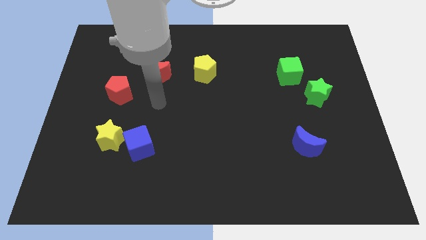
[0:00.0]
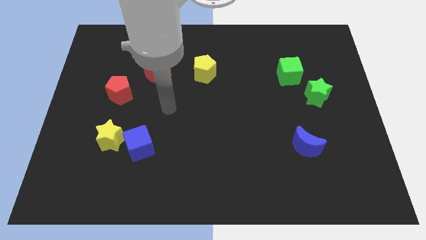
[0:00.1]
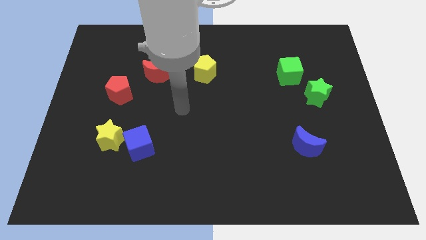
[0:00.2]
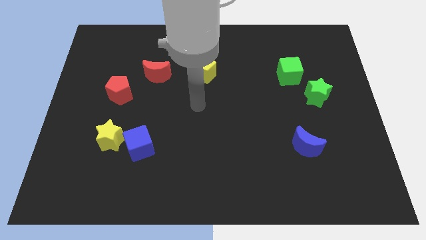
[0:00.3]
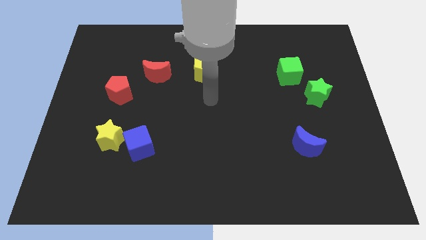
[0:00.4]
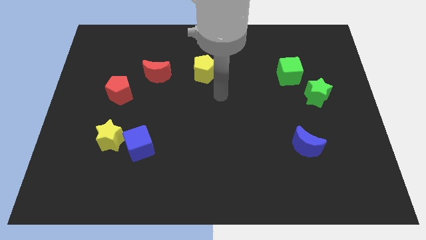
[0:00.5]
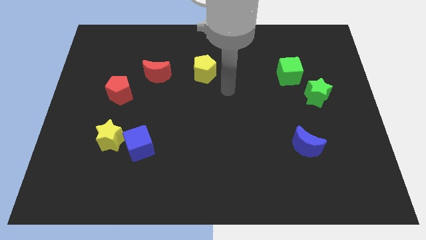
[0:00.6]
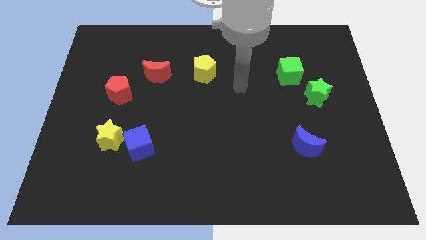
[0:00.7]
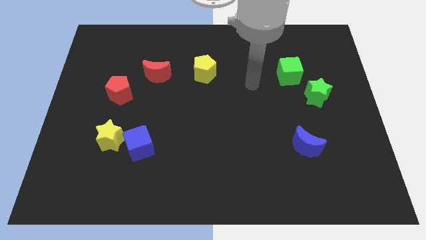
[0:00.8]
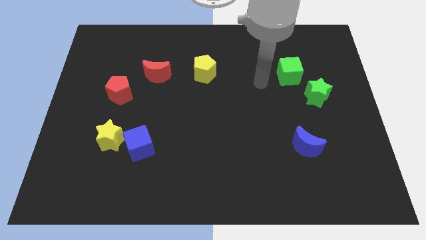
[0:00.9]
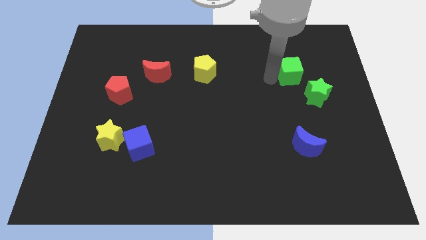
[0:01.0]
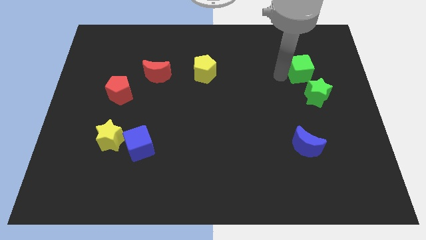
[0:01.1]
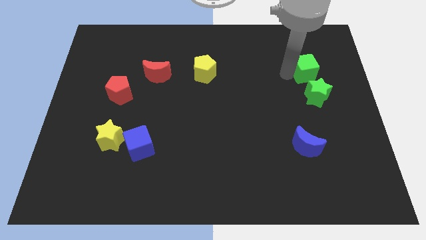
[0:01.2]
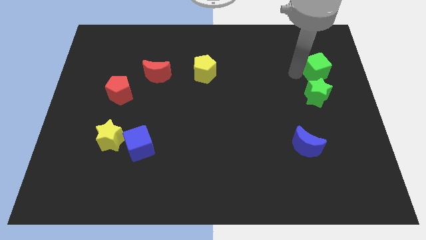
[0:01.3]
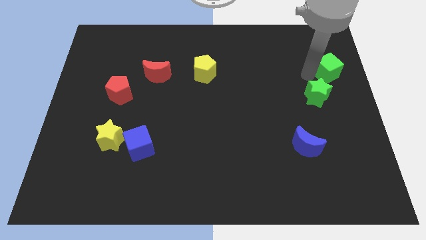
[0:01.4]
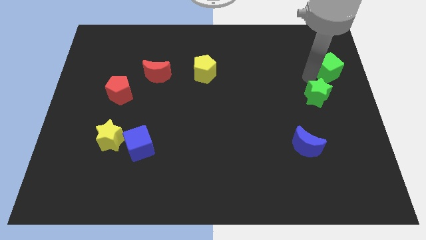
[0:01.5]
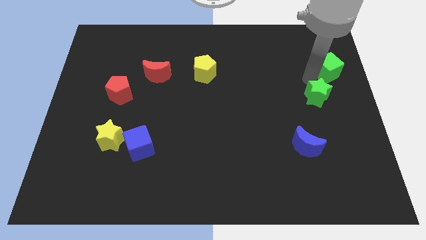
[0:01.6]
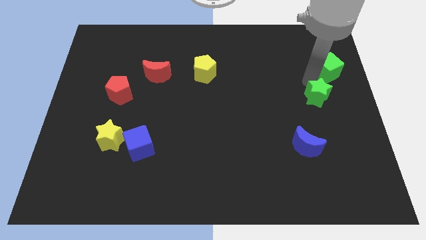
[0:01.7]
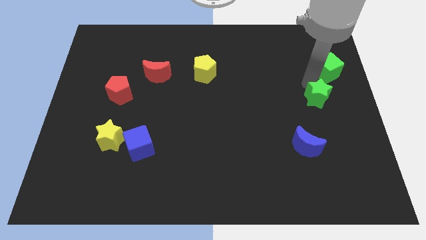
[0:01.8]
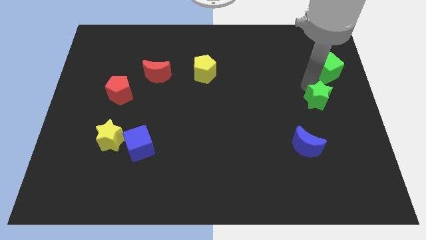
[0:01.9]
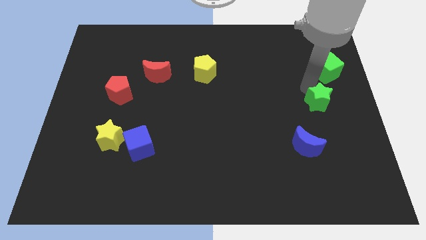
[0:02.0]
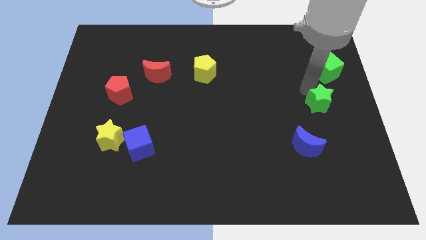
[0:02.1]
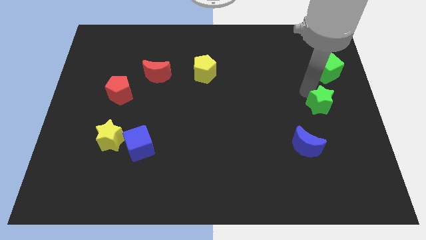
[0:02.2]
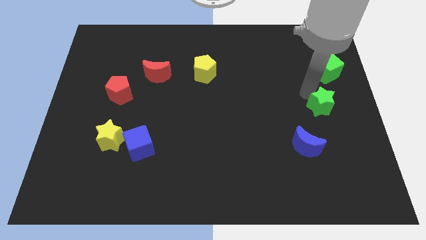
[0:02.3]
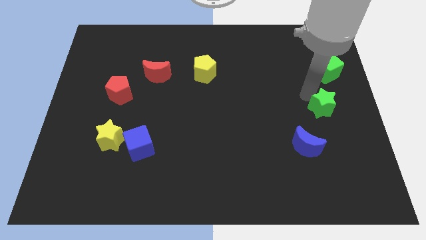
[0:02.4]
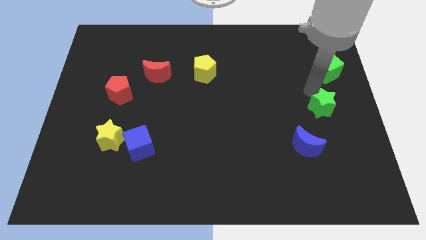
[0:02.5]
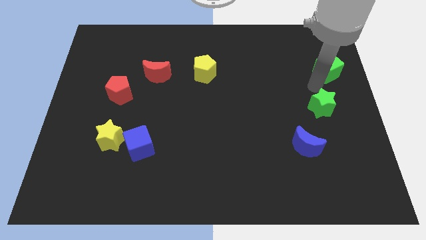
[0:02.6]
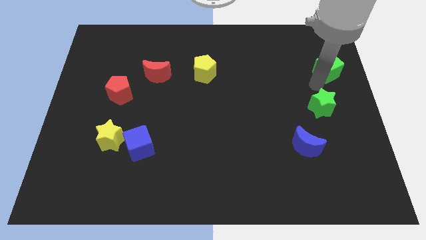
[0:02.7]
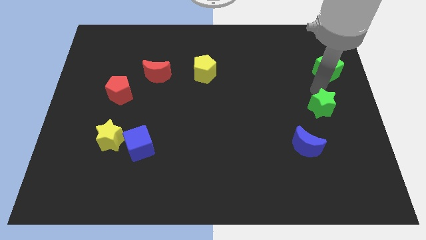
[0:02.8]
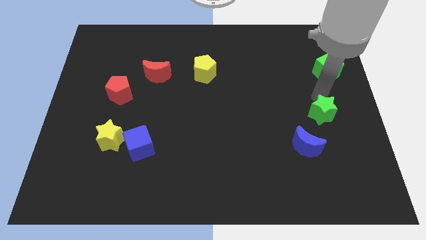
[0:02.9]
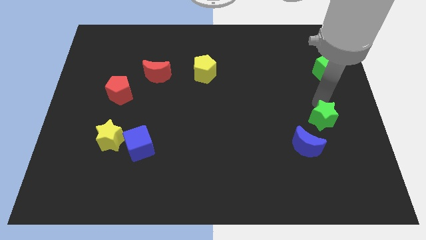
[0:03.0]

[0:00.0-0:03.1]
move the green star downwards somewhat

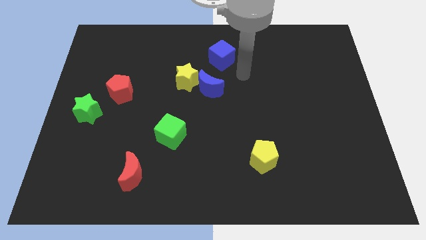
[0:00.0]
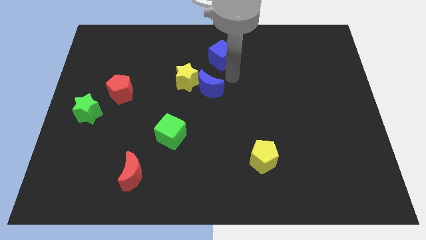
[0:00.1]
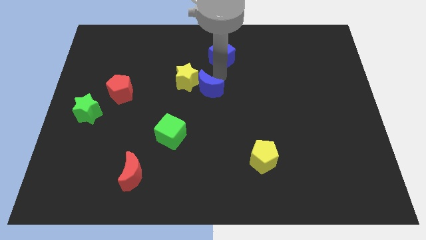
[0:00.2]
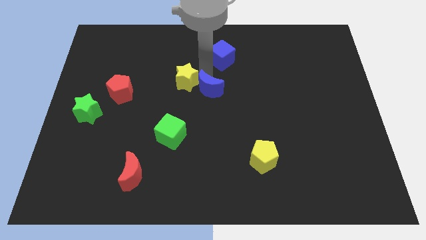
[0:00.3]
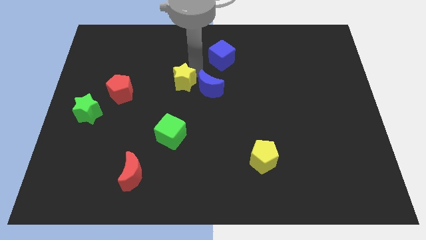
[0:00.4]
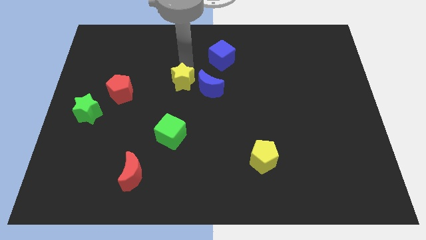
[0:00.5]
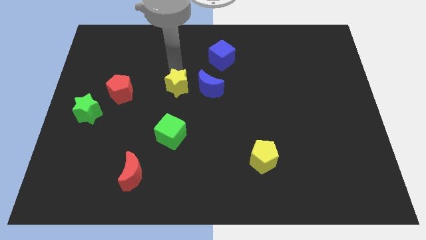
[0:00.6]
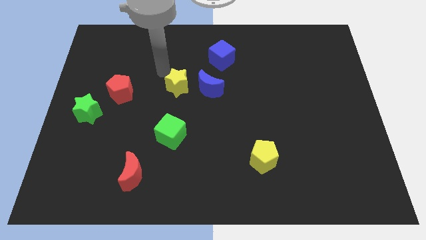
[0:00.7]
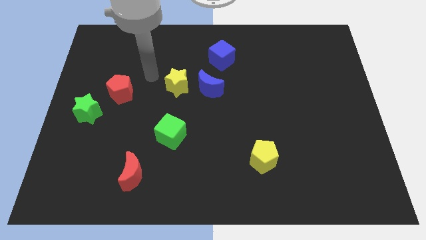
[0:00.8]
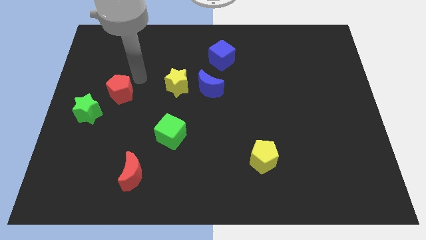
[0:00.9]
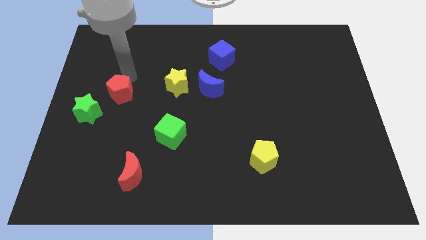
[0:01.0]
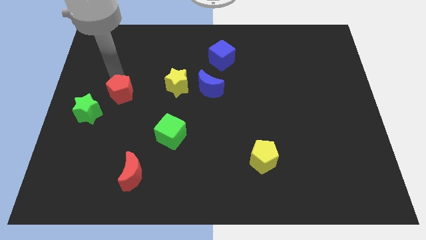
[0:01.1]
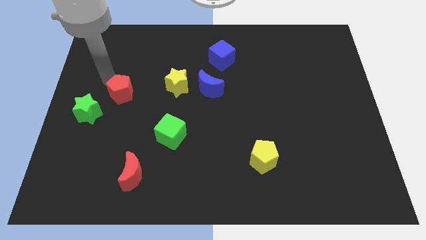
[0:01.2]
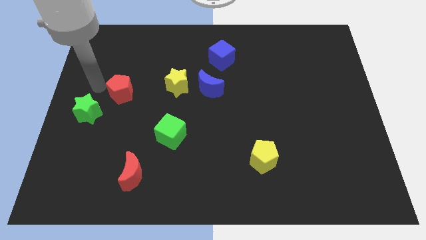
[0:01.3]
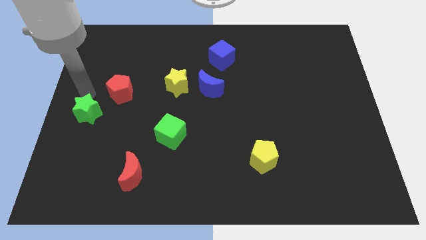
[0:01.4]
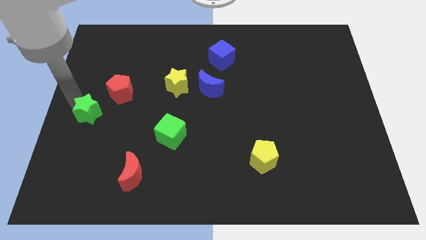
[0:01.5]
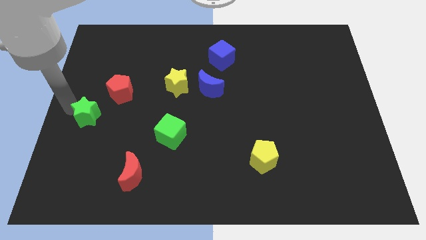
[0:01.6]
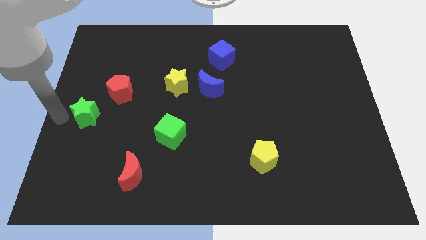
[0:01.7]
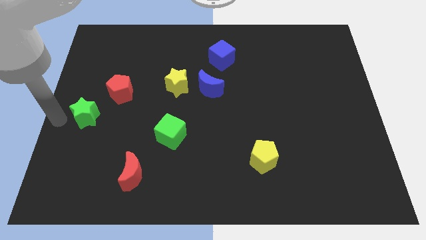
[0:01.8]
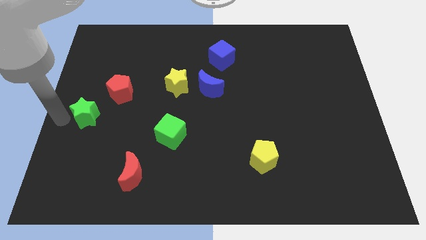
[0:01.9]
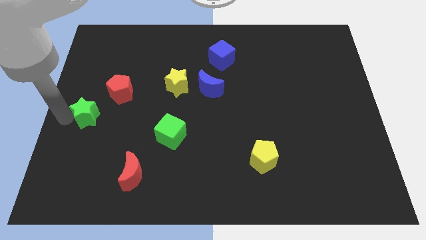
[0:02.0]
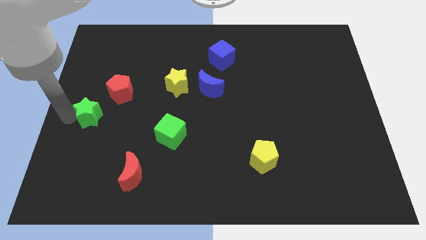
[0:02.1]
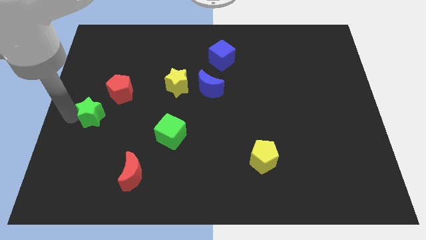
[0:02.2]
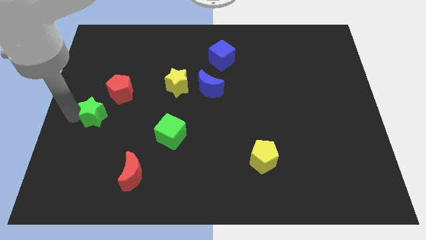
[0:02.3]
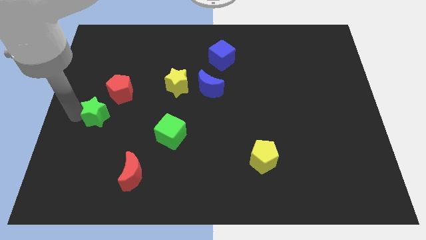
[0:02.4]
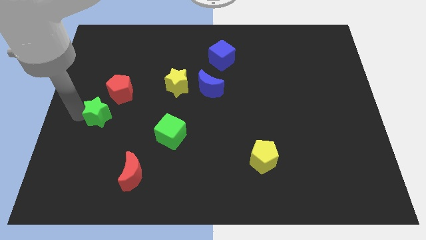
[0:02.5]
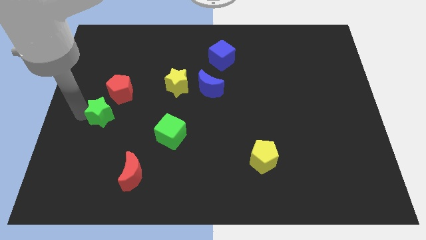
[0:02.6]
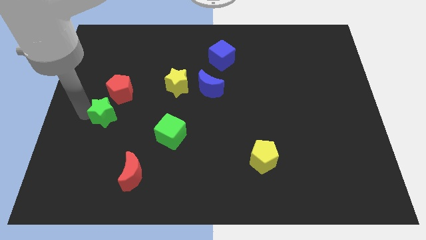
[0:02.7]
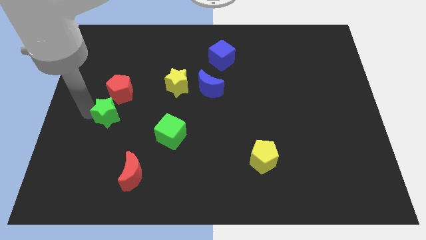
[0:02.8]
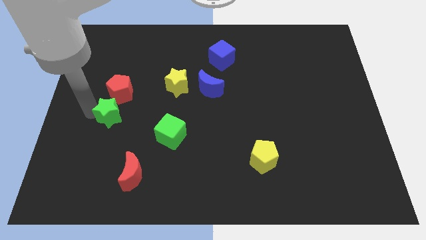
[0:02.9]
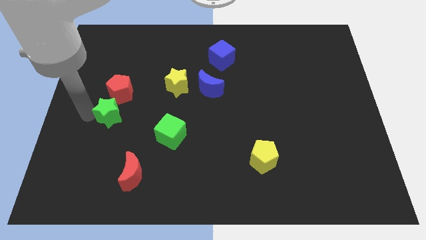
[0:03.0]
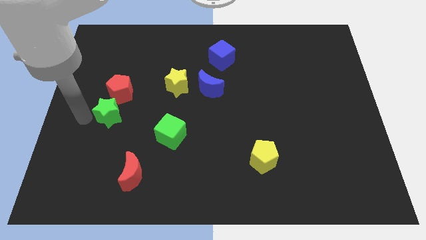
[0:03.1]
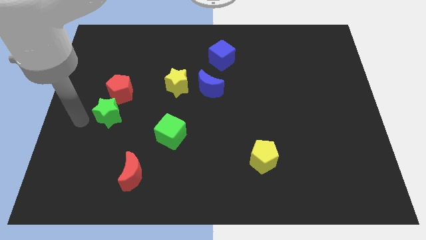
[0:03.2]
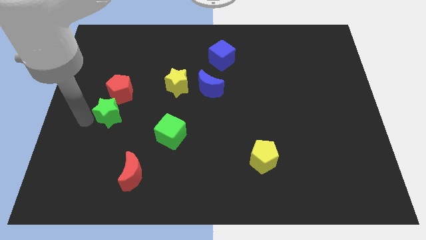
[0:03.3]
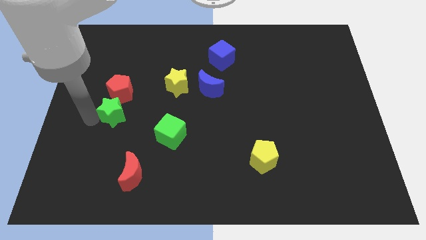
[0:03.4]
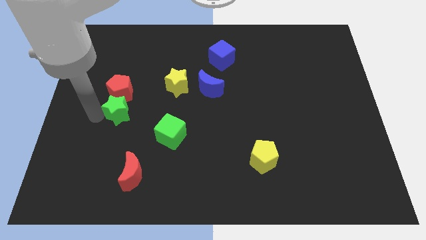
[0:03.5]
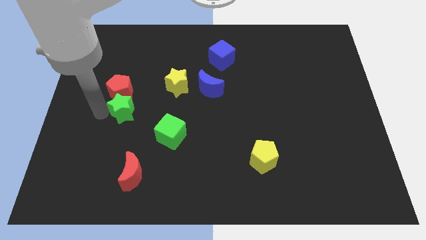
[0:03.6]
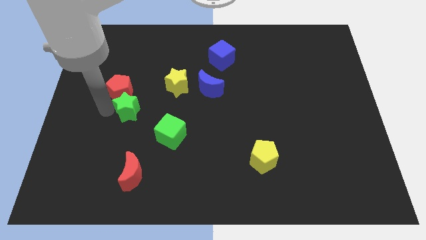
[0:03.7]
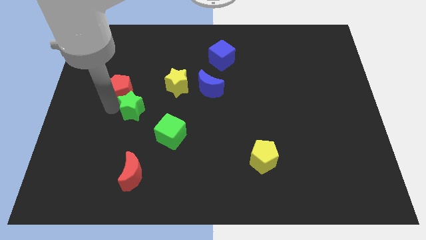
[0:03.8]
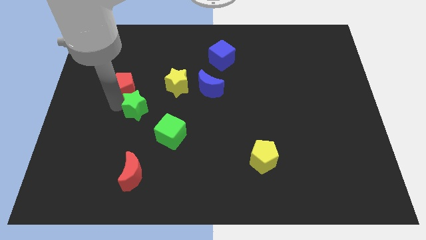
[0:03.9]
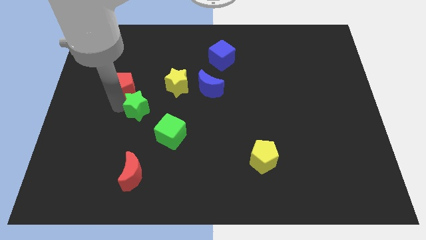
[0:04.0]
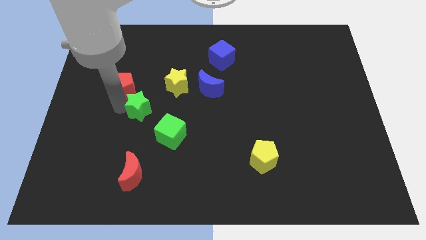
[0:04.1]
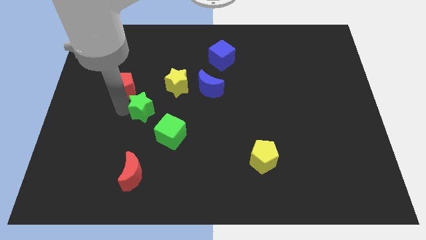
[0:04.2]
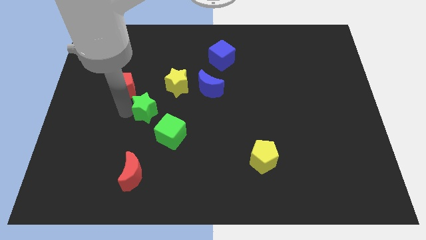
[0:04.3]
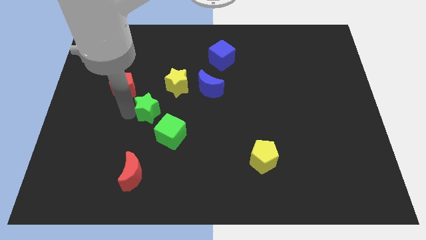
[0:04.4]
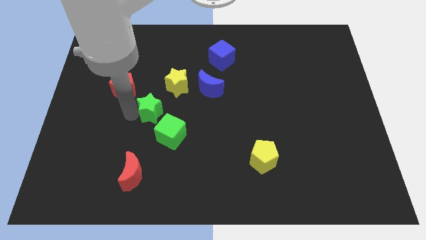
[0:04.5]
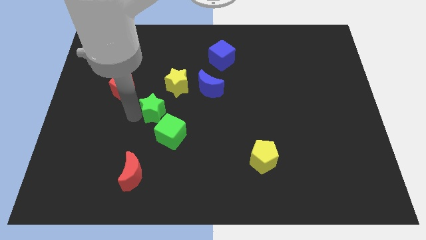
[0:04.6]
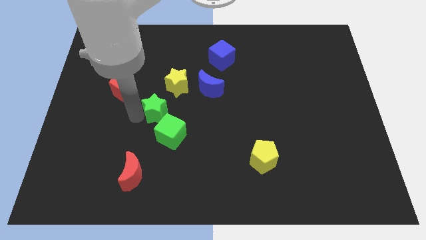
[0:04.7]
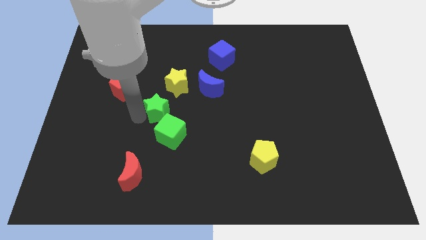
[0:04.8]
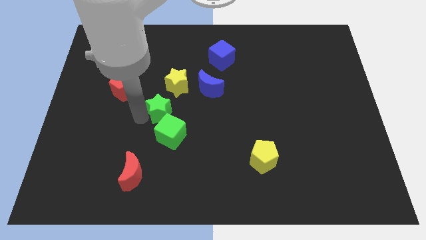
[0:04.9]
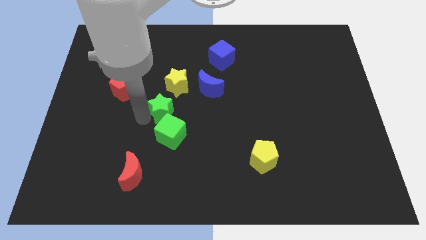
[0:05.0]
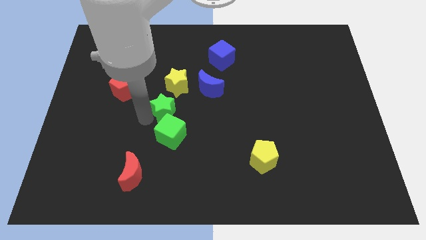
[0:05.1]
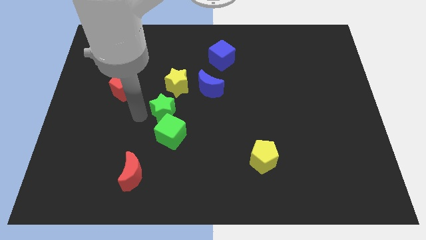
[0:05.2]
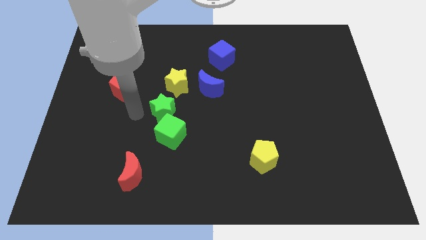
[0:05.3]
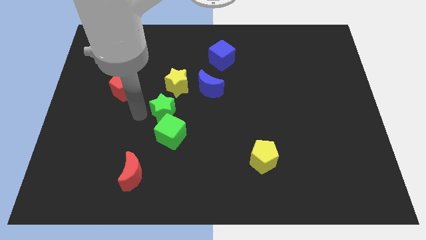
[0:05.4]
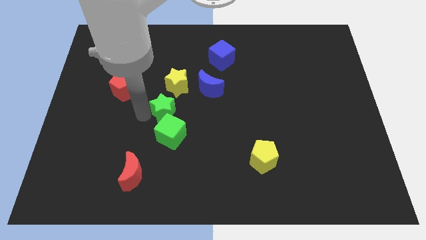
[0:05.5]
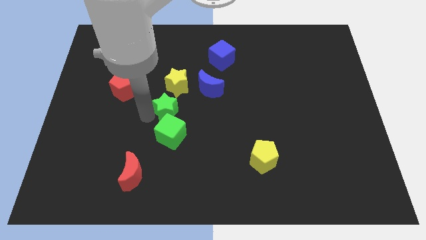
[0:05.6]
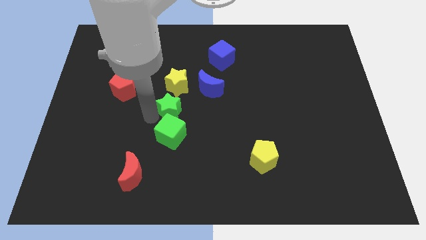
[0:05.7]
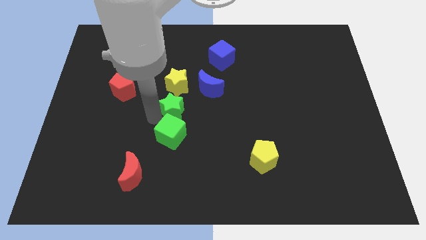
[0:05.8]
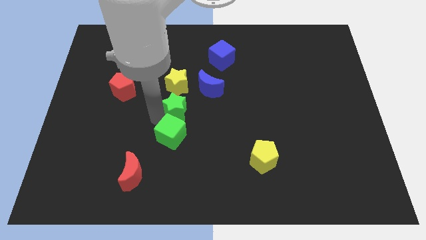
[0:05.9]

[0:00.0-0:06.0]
push the green star right
